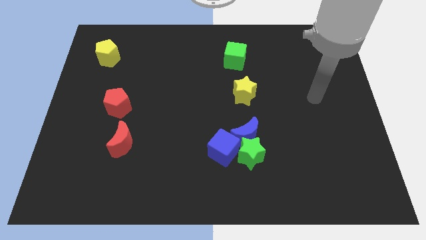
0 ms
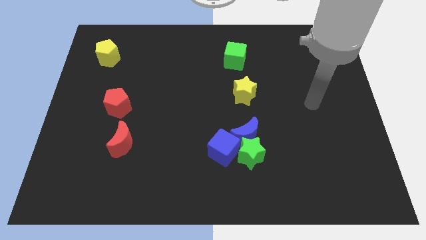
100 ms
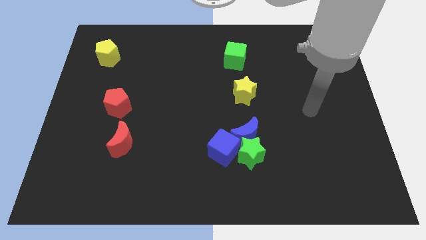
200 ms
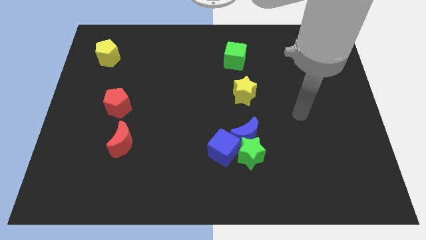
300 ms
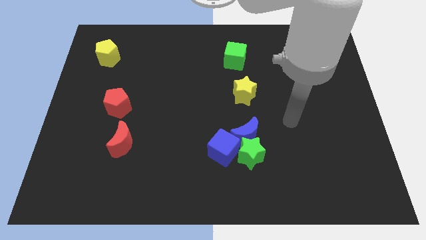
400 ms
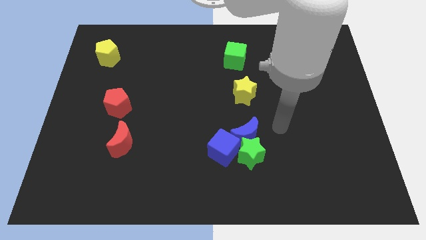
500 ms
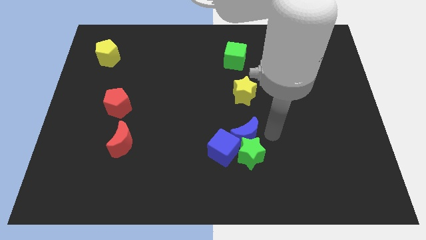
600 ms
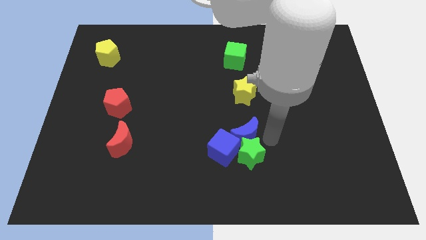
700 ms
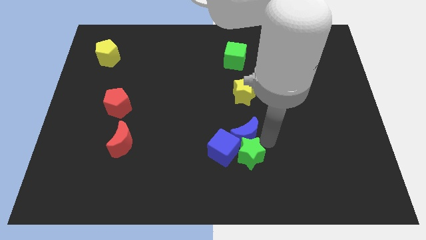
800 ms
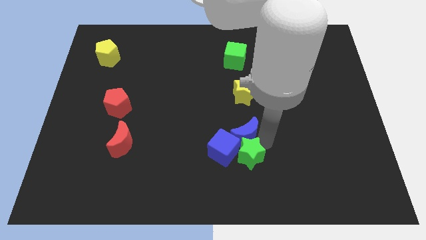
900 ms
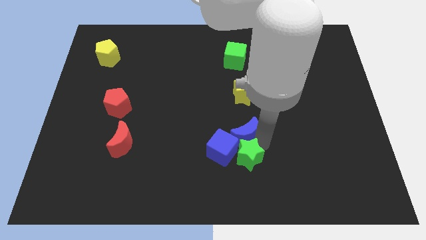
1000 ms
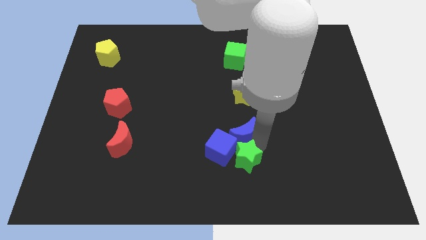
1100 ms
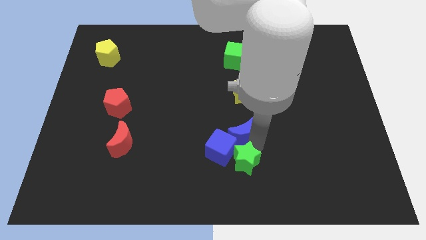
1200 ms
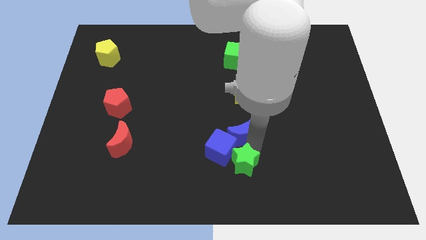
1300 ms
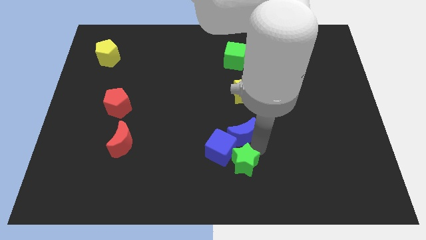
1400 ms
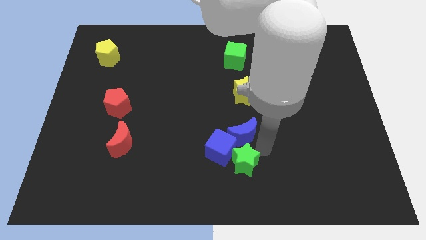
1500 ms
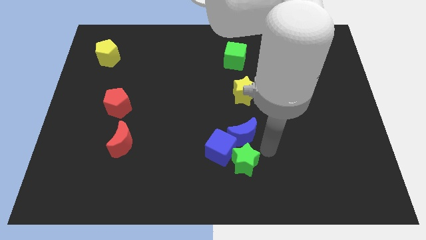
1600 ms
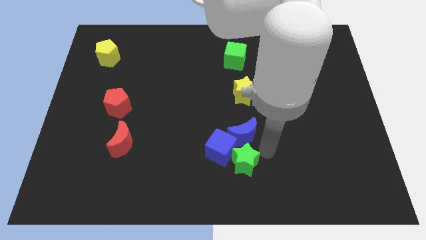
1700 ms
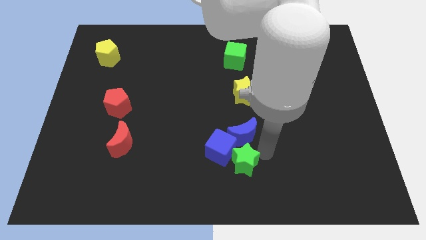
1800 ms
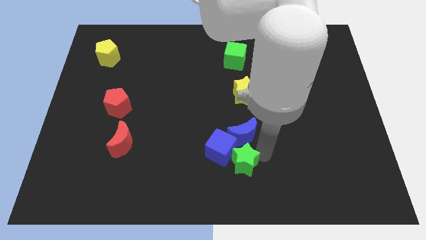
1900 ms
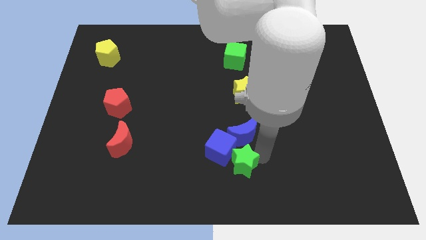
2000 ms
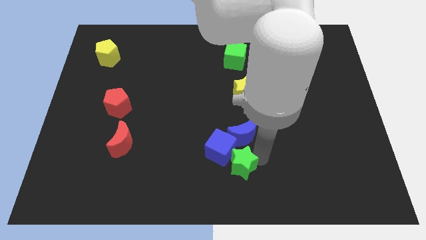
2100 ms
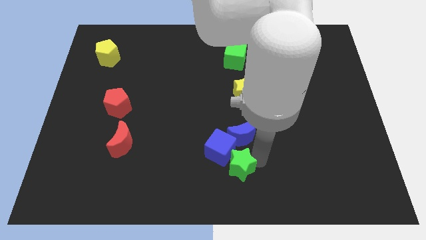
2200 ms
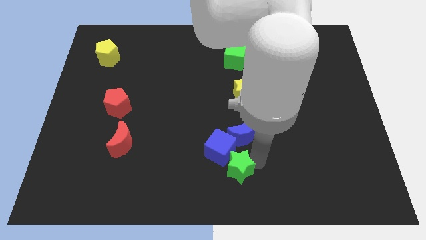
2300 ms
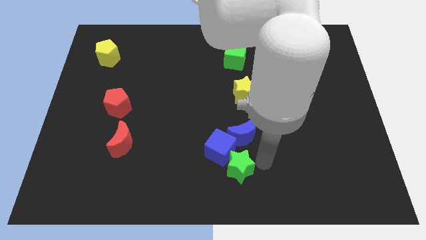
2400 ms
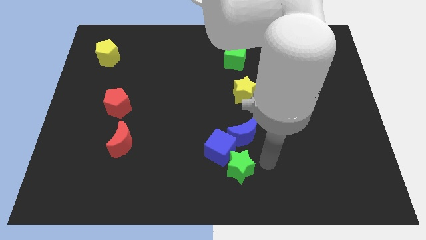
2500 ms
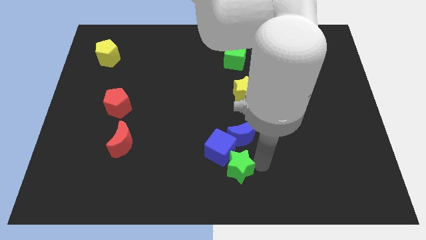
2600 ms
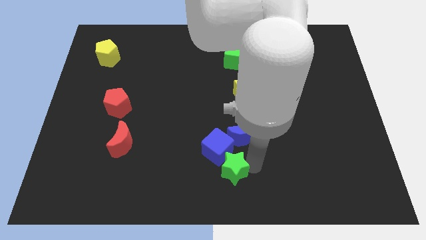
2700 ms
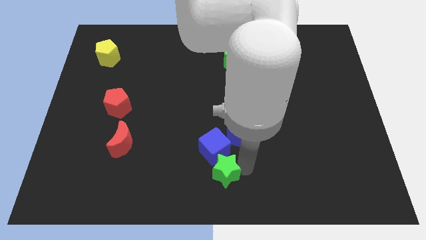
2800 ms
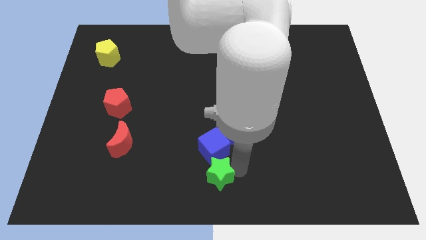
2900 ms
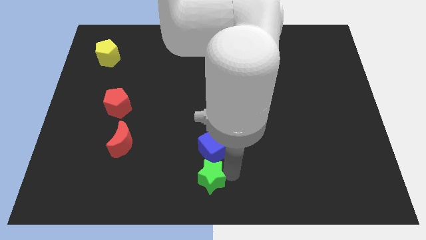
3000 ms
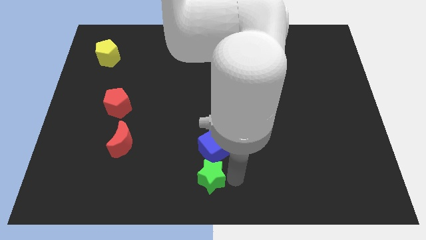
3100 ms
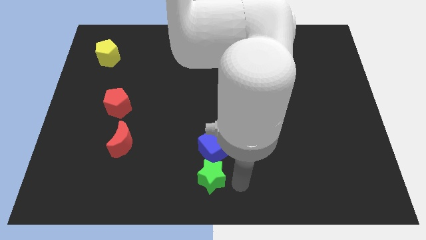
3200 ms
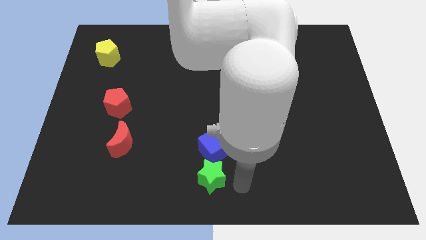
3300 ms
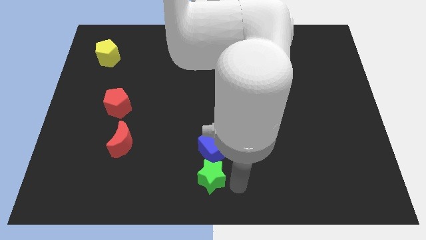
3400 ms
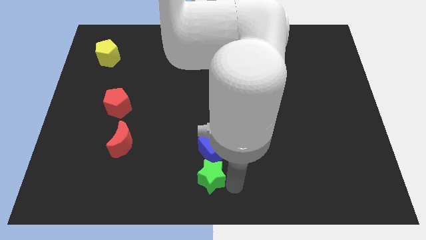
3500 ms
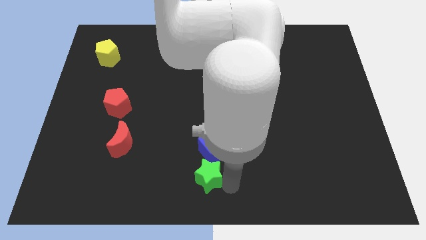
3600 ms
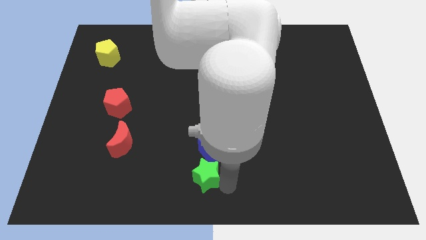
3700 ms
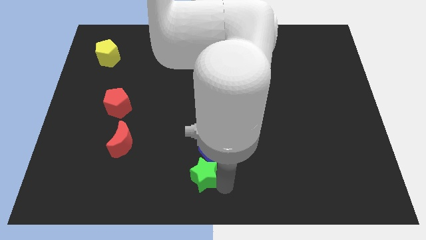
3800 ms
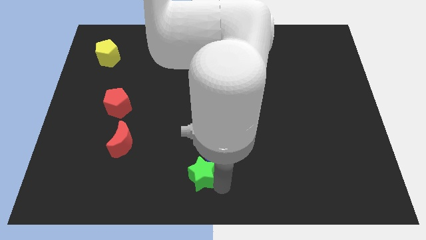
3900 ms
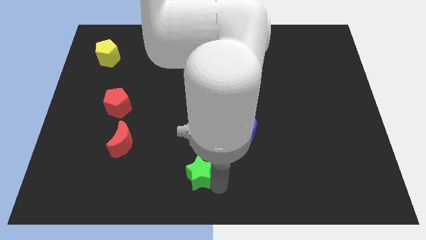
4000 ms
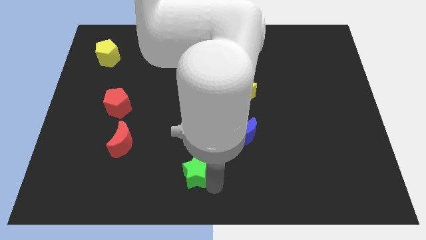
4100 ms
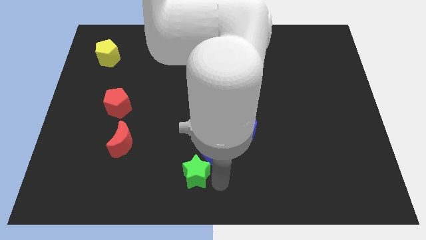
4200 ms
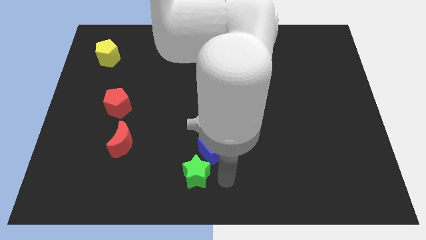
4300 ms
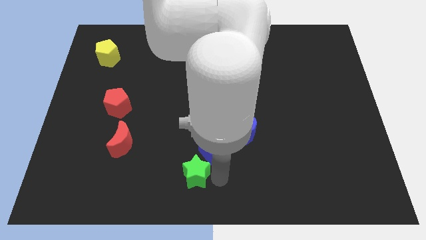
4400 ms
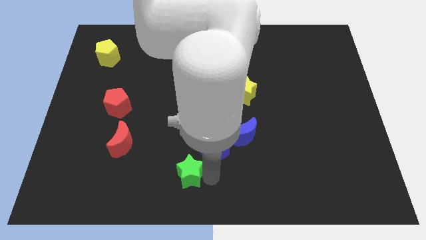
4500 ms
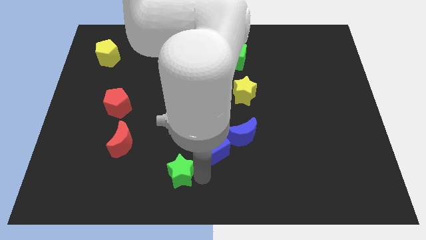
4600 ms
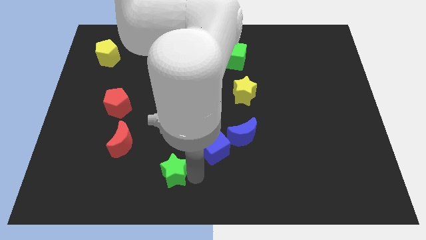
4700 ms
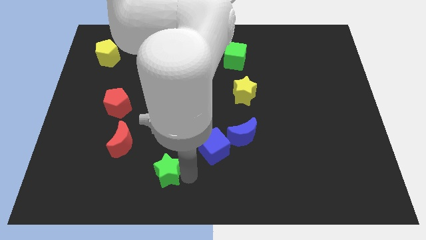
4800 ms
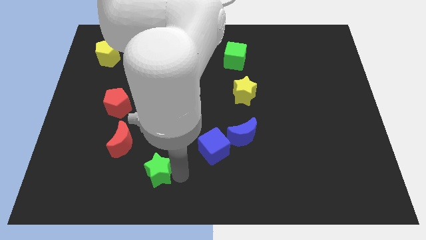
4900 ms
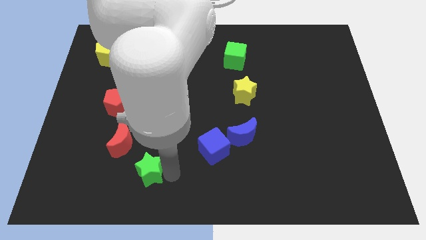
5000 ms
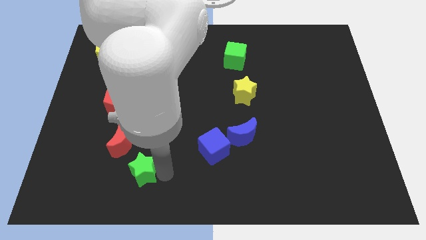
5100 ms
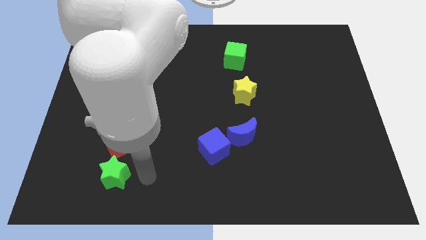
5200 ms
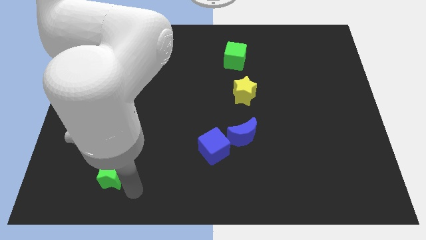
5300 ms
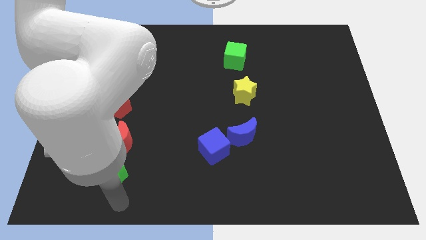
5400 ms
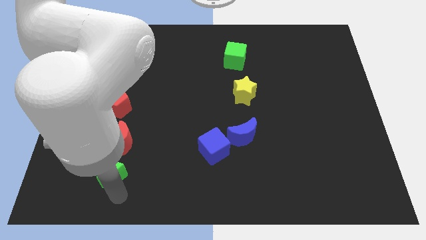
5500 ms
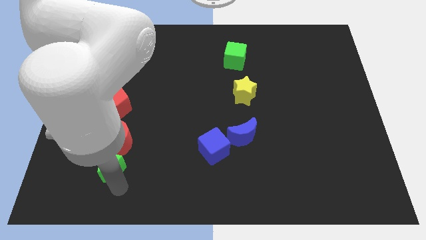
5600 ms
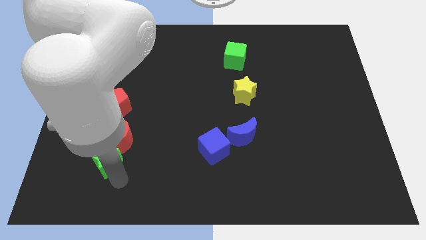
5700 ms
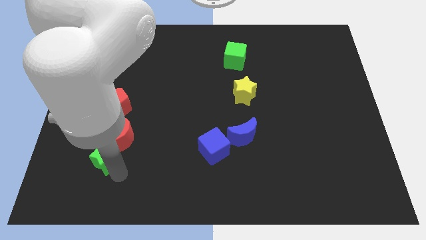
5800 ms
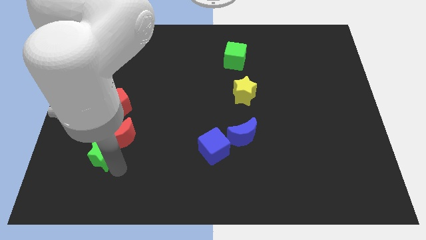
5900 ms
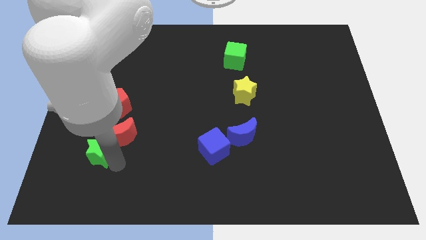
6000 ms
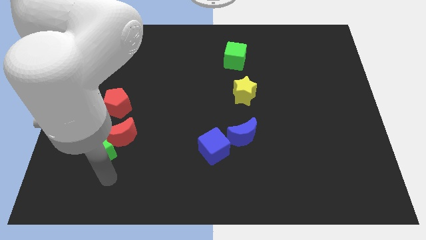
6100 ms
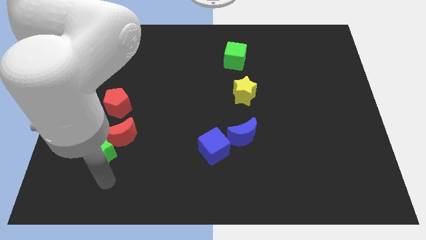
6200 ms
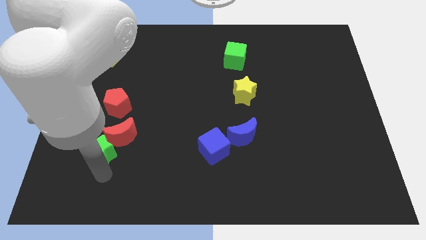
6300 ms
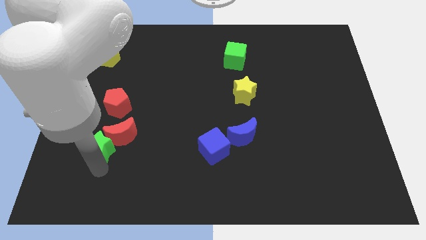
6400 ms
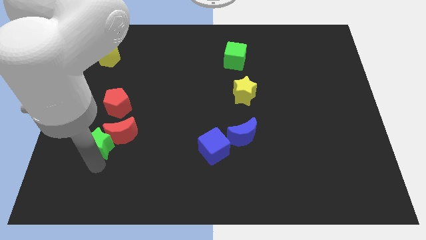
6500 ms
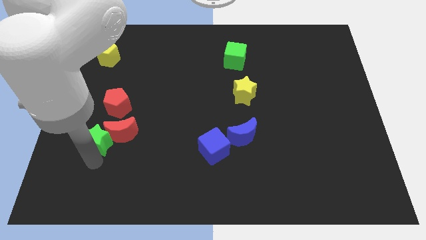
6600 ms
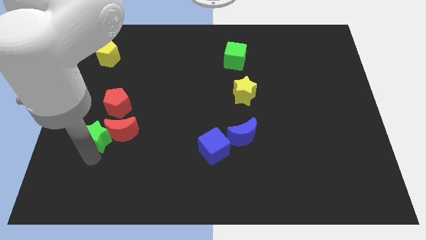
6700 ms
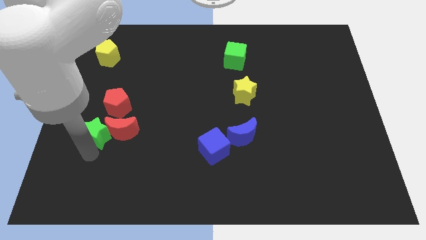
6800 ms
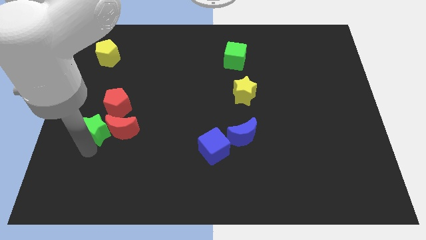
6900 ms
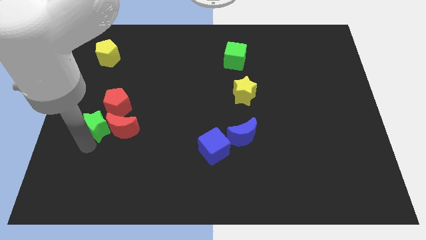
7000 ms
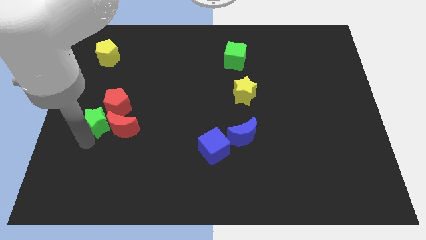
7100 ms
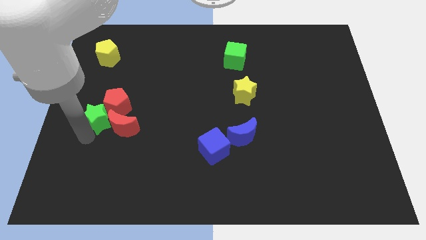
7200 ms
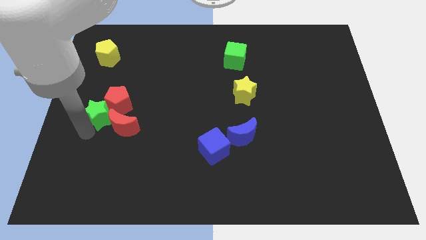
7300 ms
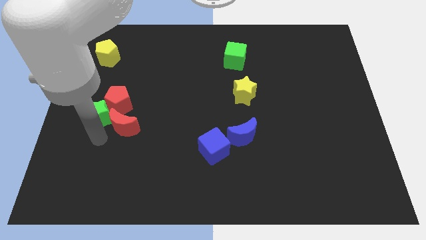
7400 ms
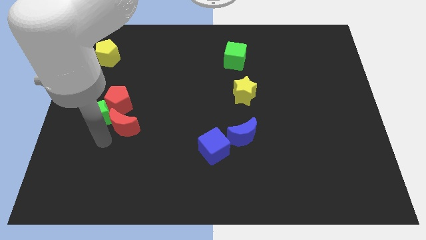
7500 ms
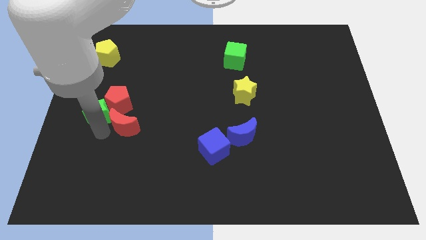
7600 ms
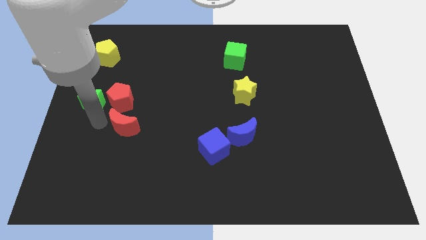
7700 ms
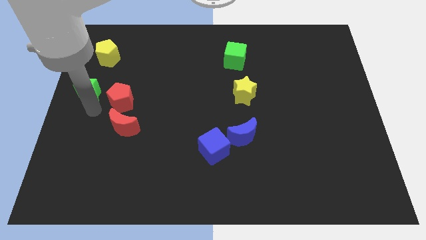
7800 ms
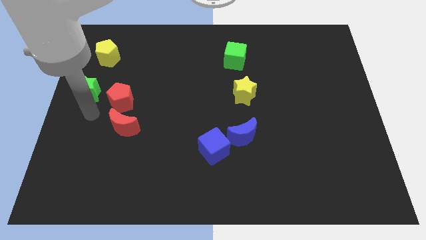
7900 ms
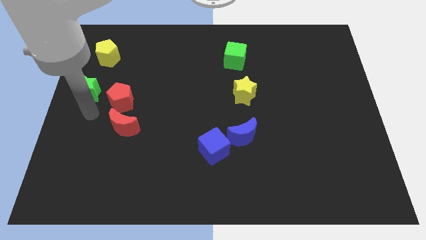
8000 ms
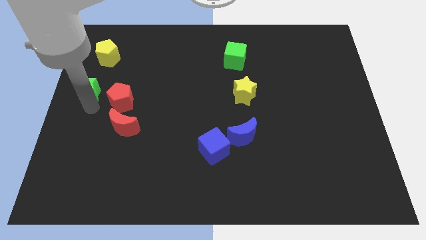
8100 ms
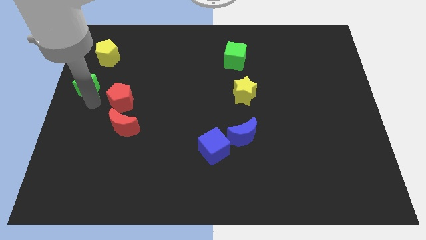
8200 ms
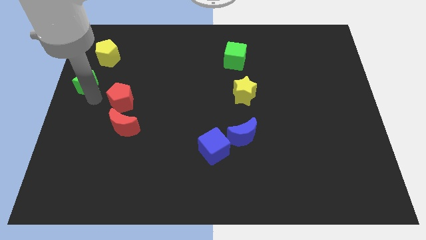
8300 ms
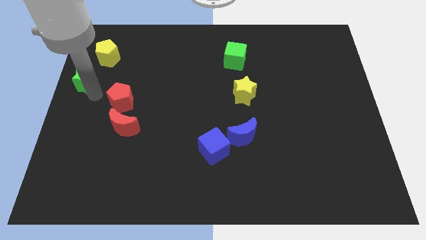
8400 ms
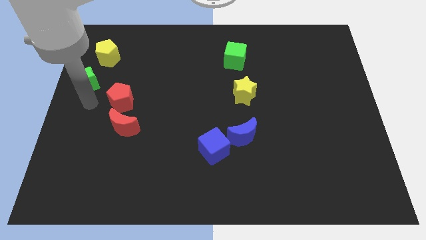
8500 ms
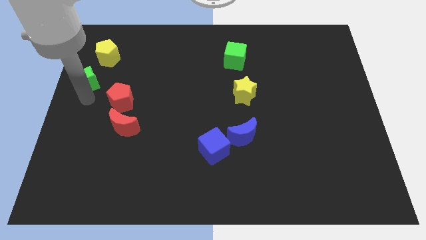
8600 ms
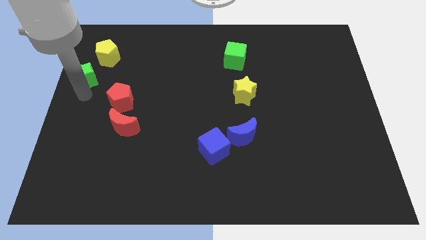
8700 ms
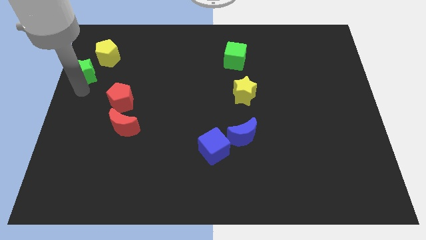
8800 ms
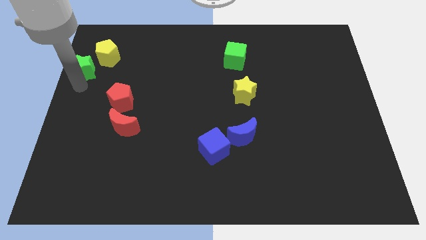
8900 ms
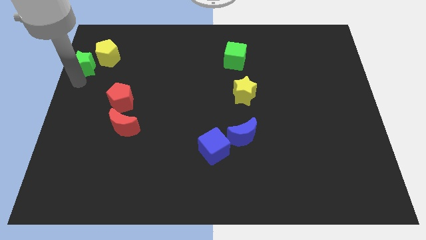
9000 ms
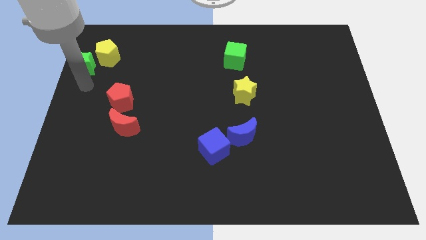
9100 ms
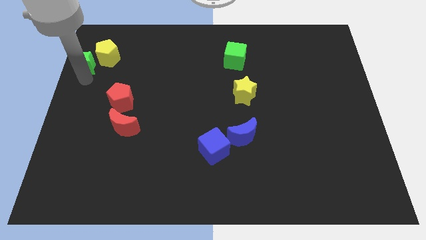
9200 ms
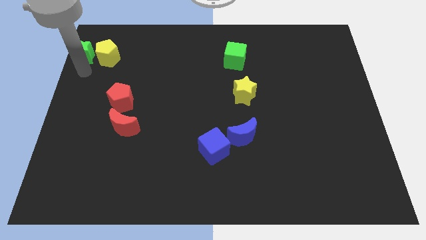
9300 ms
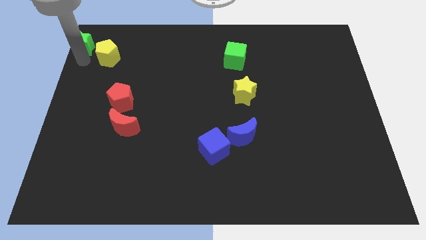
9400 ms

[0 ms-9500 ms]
put the green star to the top left of the board
